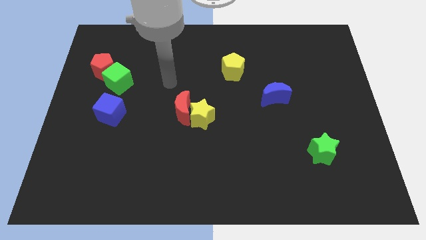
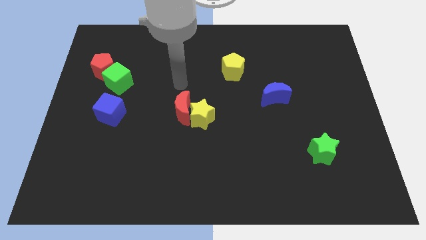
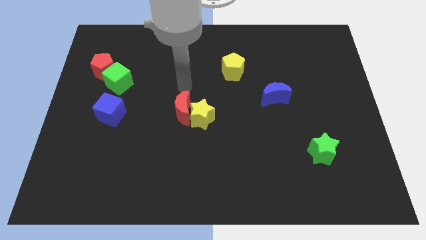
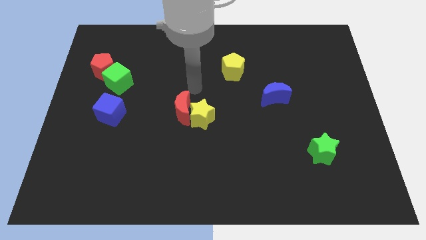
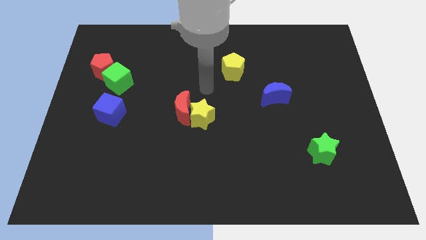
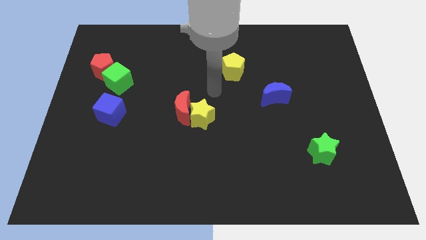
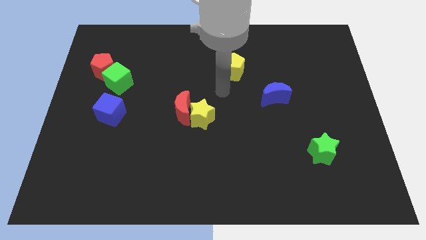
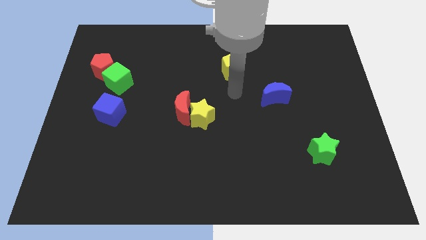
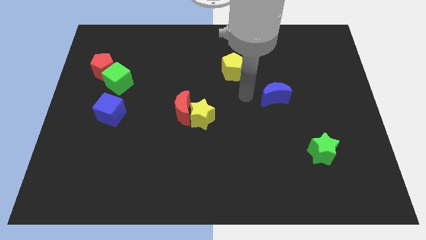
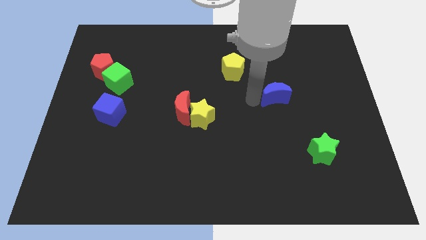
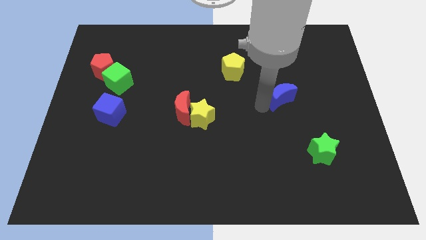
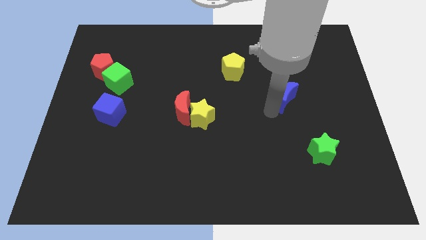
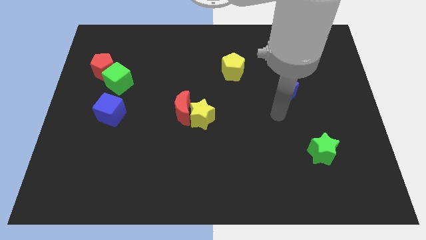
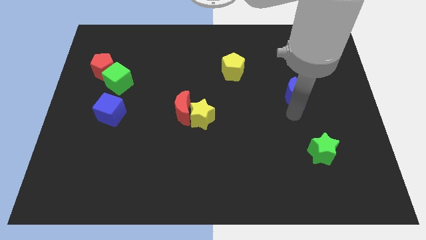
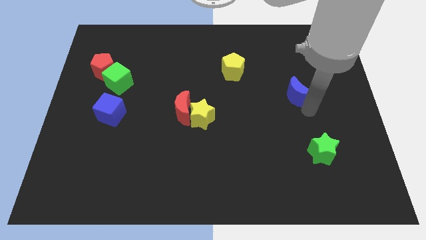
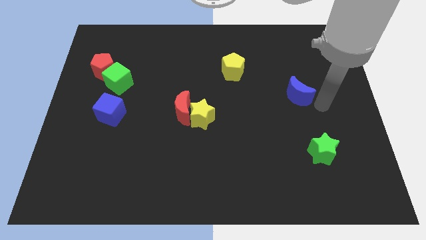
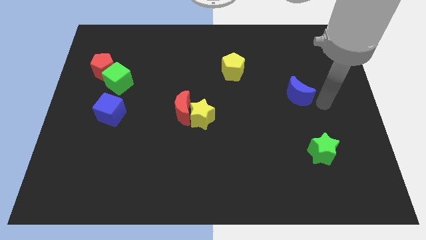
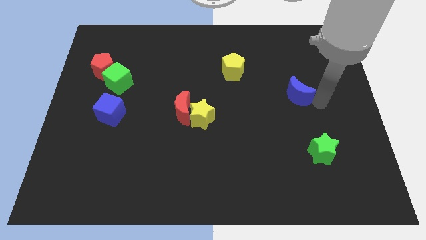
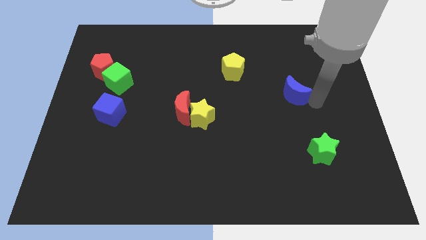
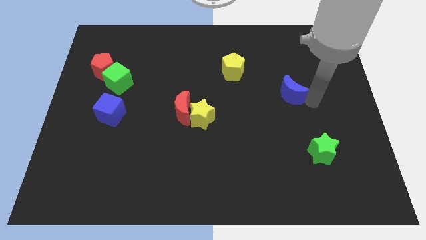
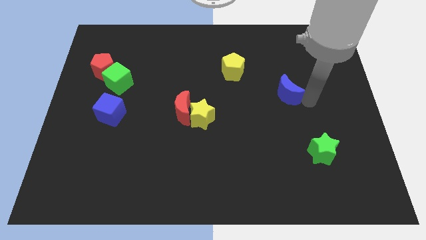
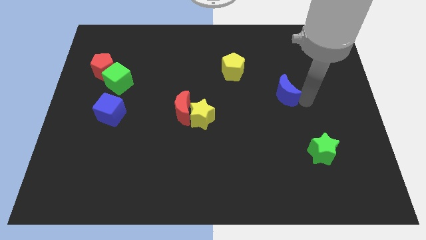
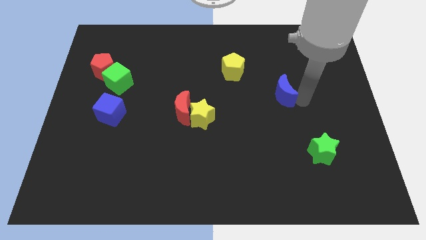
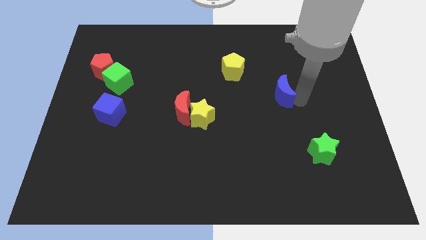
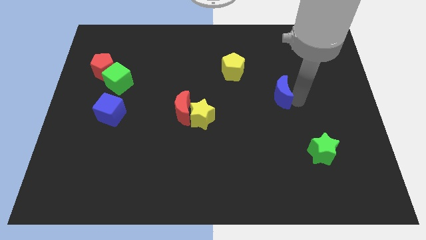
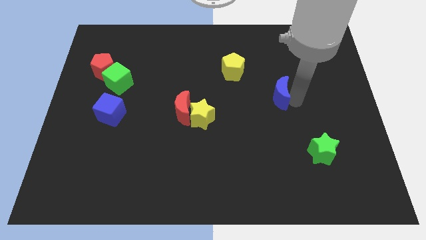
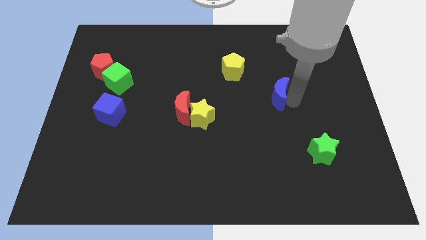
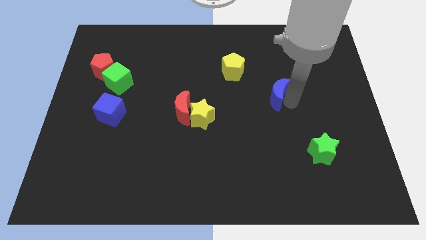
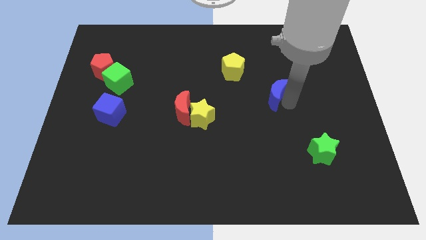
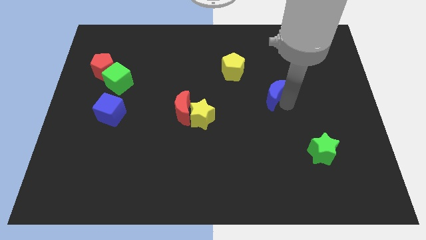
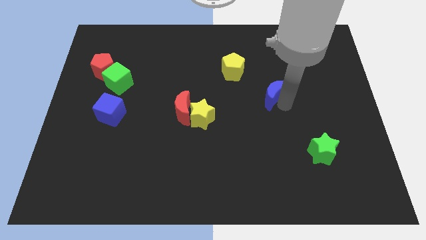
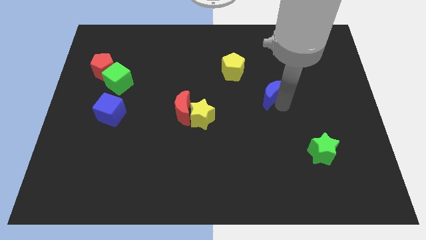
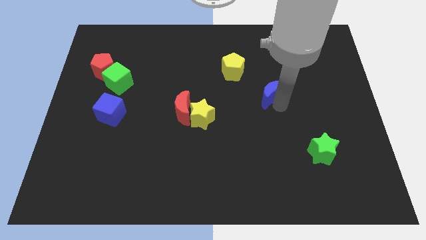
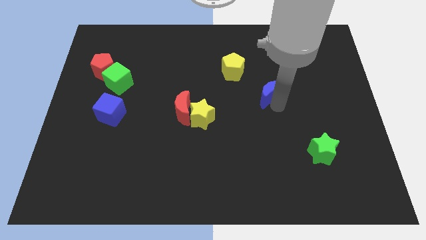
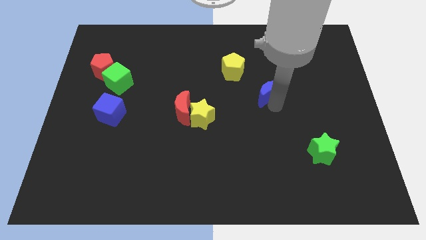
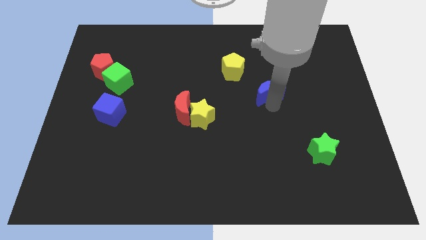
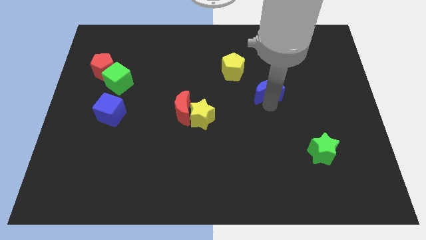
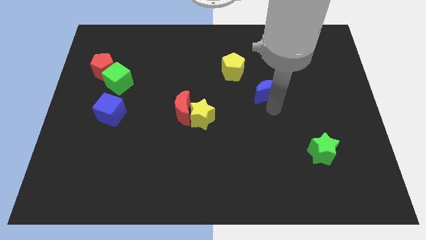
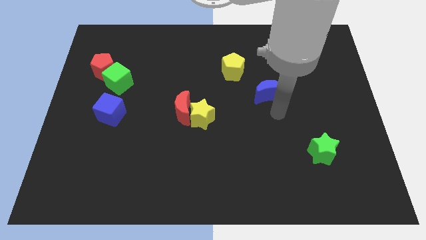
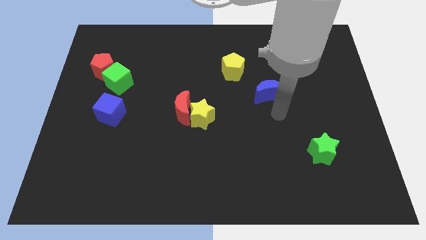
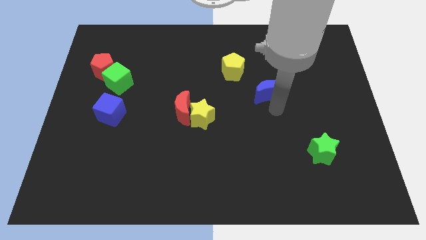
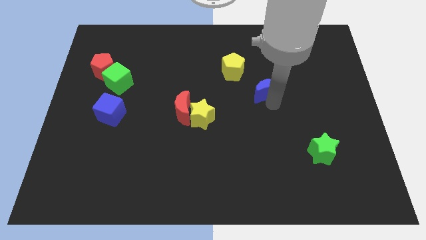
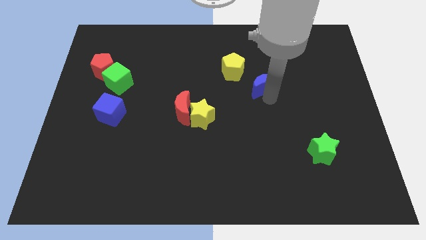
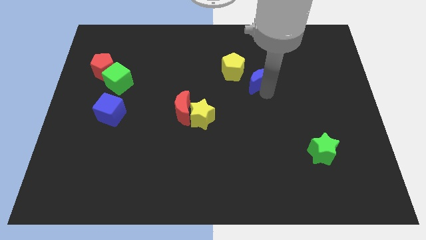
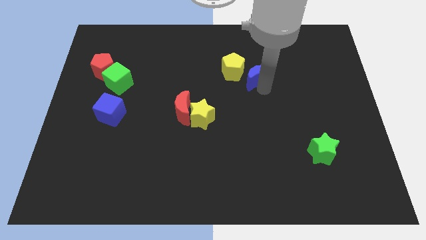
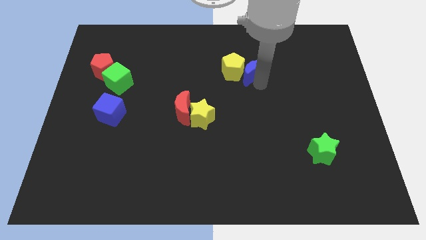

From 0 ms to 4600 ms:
slightly move the blue moon upwards and left diagonally

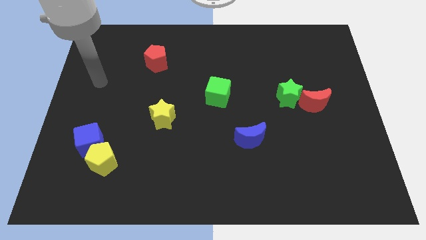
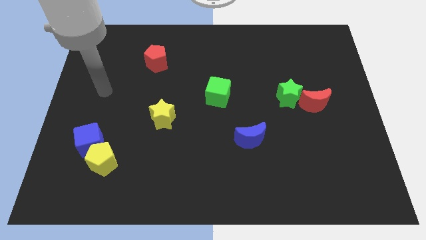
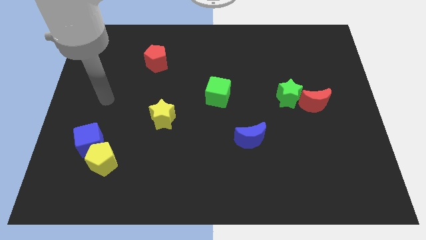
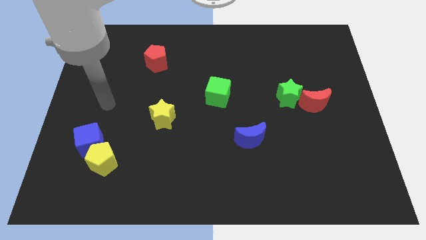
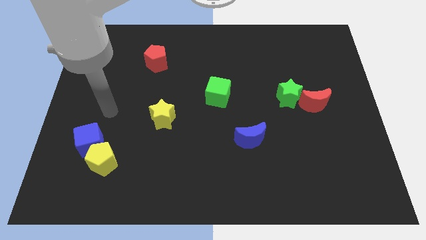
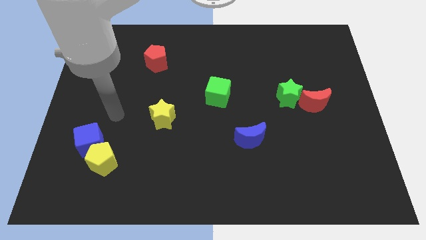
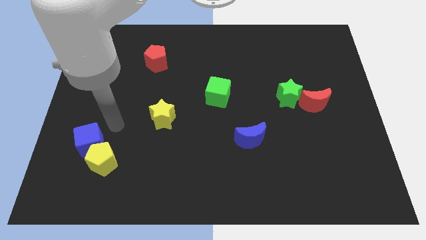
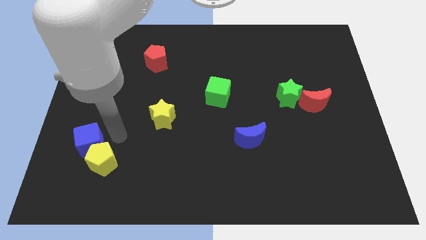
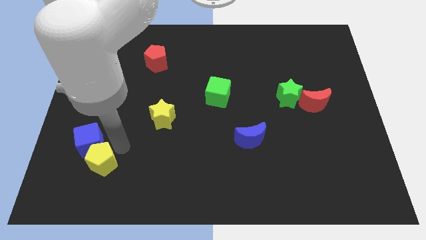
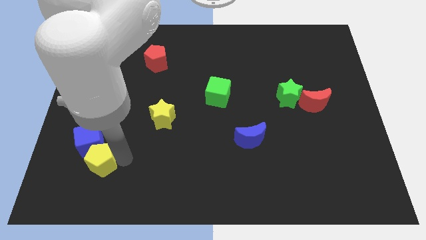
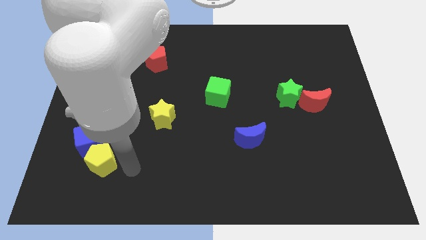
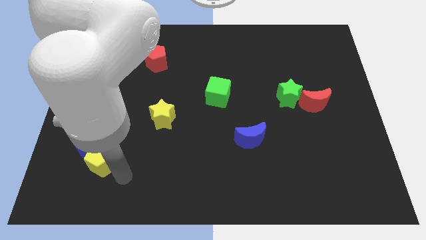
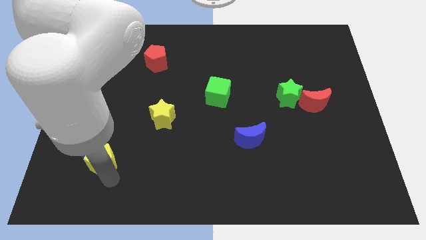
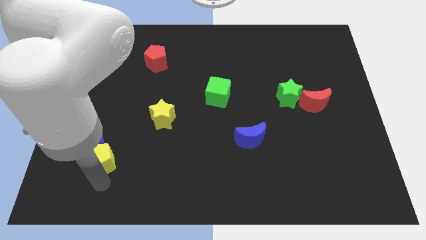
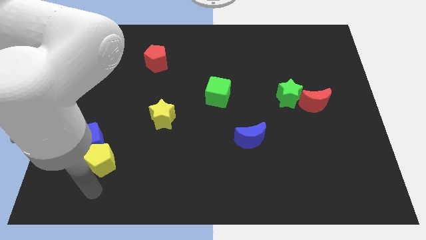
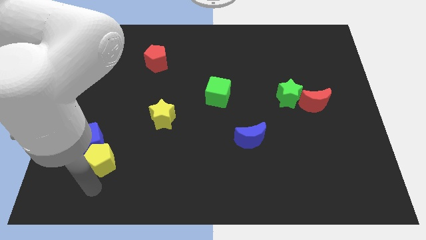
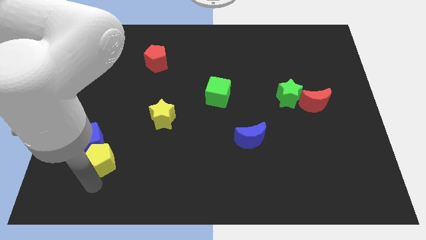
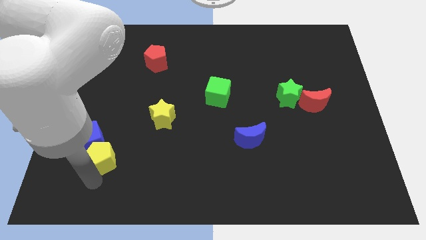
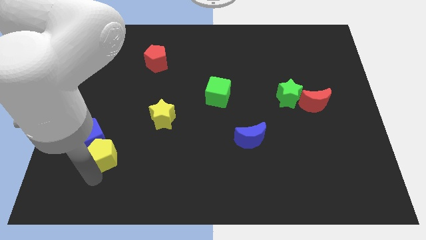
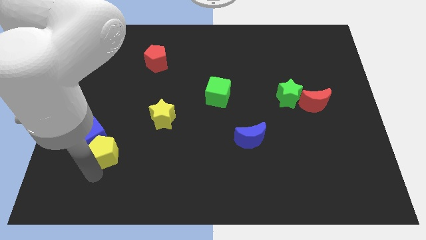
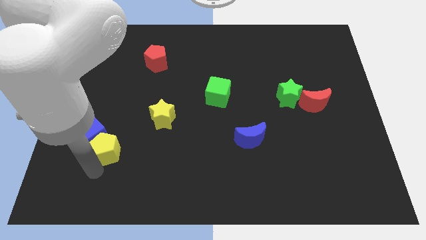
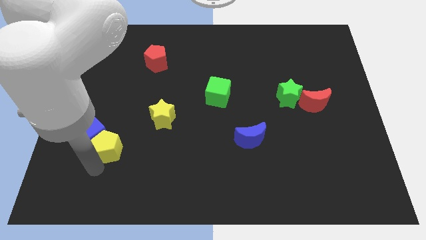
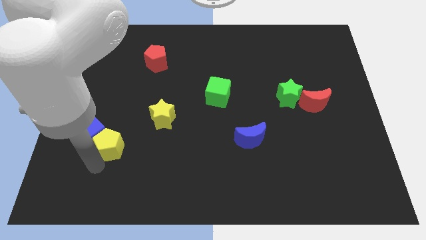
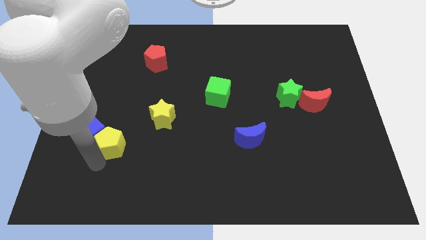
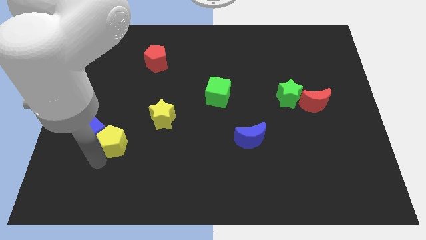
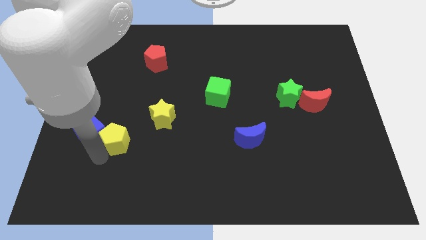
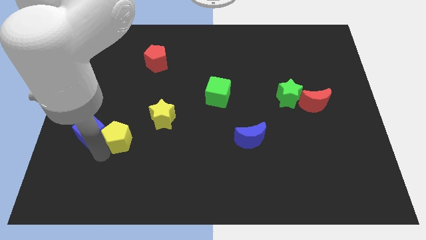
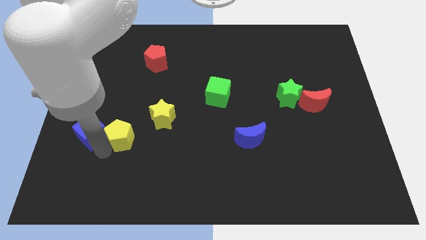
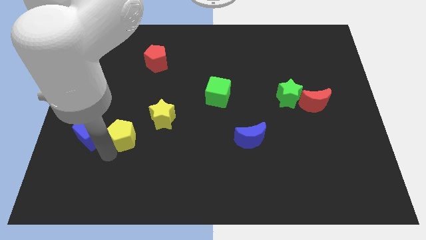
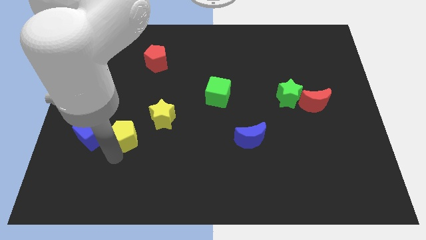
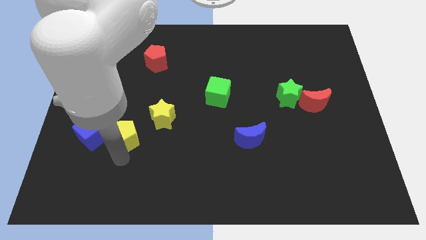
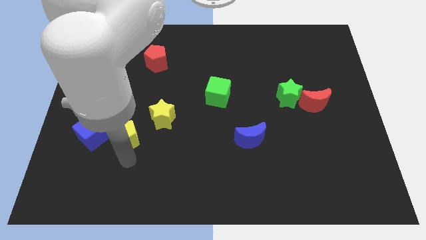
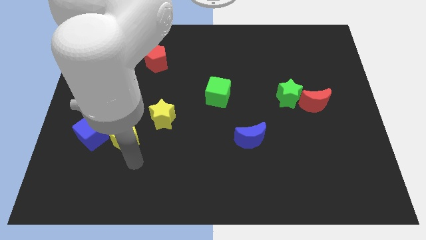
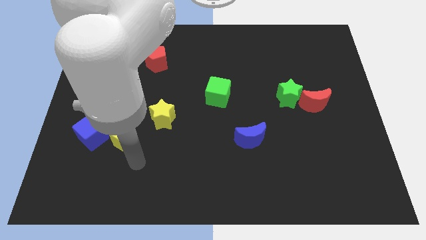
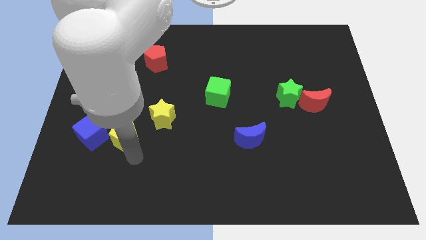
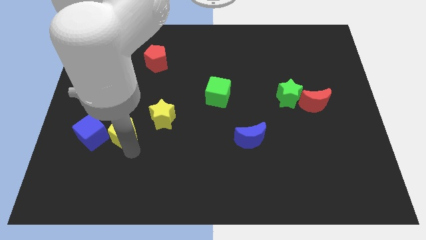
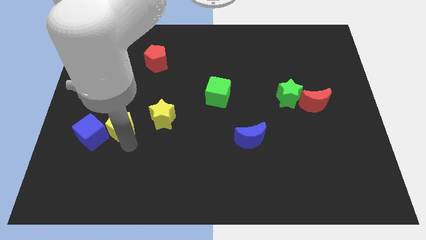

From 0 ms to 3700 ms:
slightly push the yellow pentagon upwards
